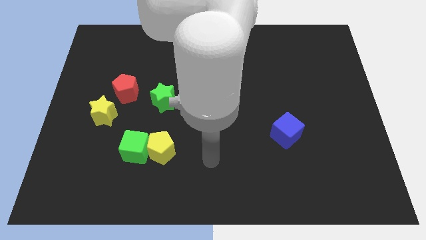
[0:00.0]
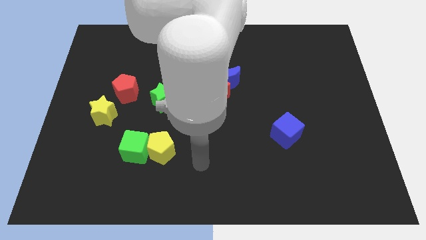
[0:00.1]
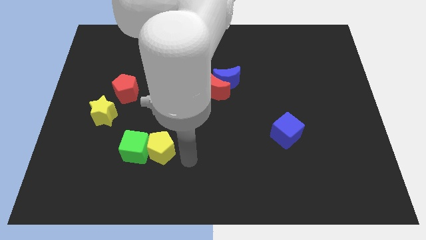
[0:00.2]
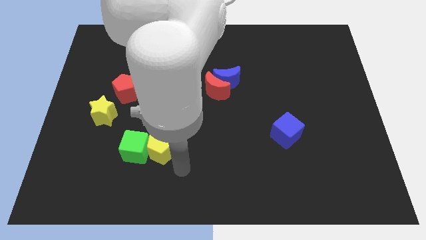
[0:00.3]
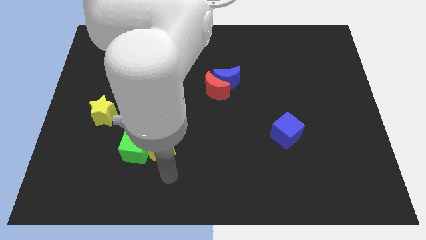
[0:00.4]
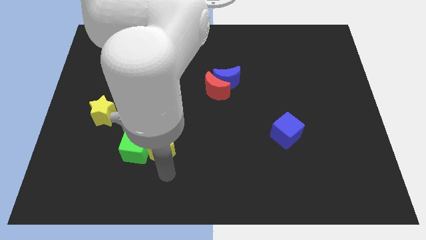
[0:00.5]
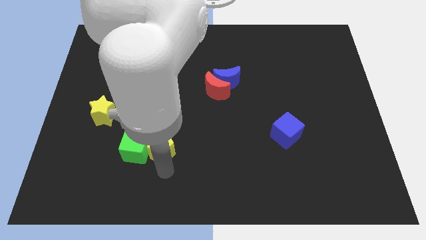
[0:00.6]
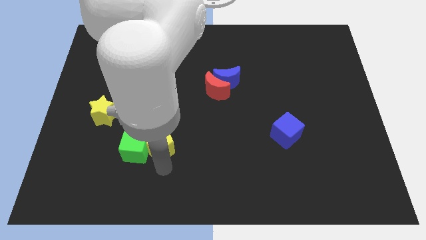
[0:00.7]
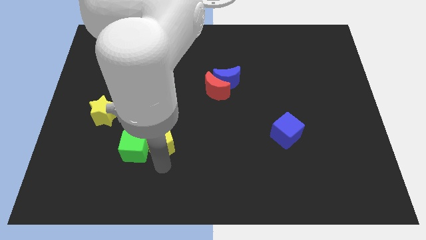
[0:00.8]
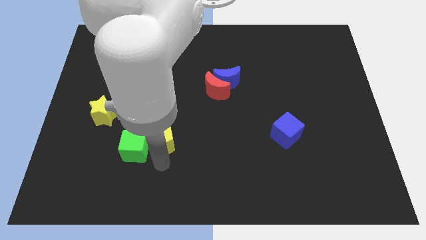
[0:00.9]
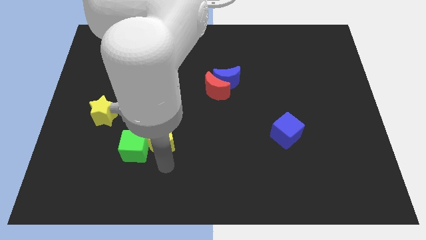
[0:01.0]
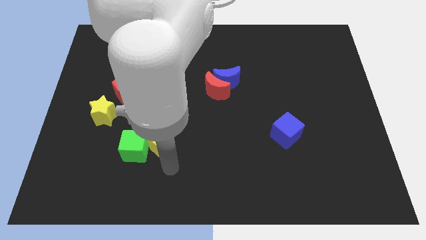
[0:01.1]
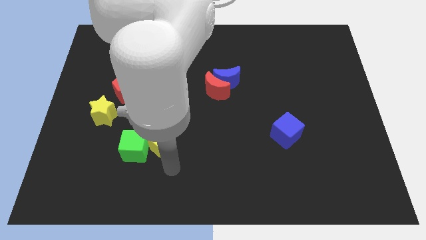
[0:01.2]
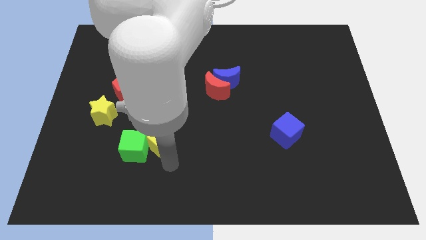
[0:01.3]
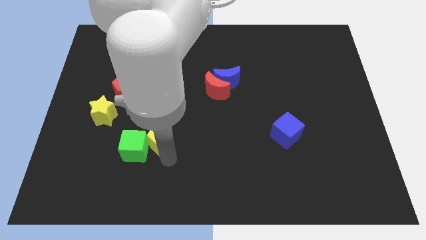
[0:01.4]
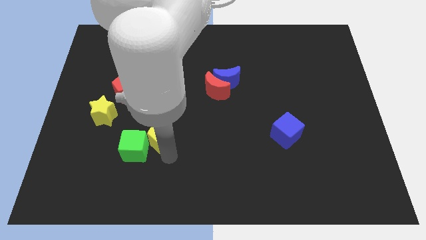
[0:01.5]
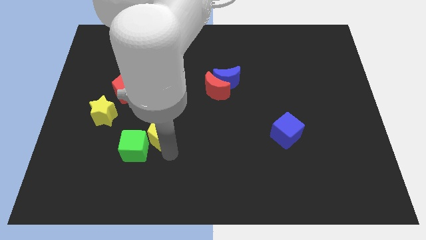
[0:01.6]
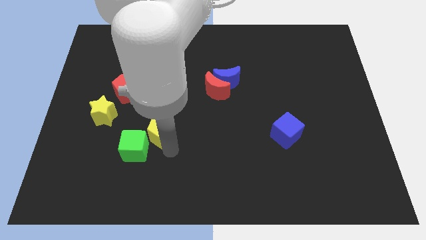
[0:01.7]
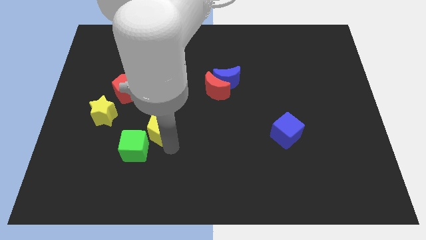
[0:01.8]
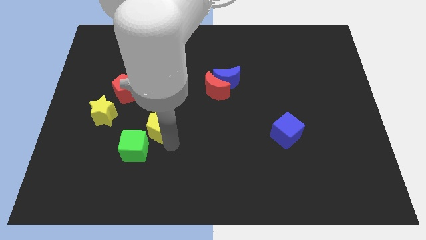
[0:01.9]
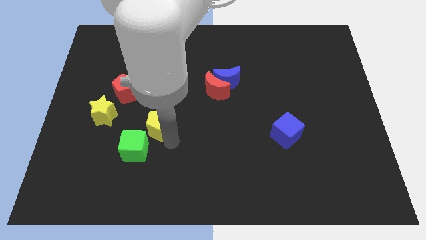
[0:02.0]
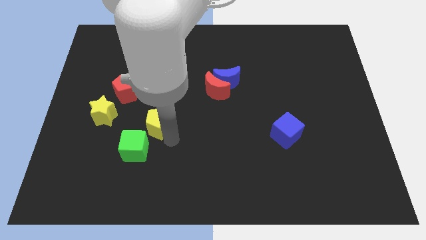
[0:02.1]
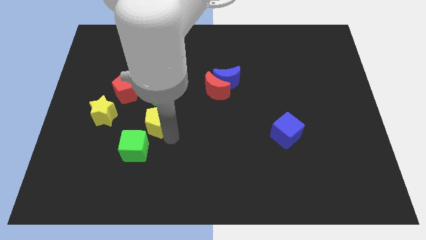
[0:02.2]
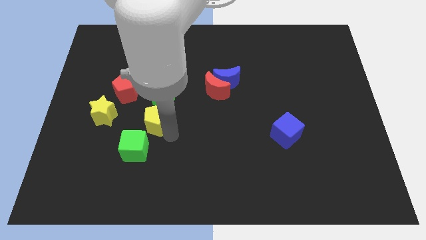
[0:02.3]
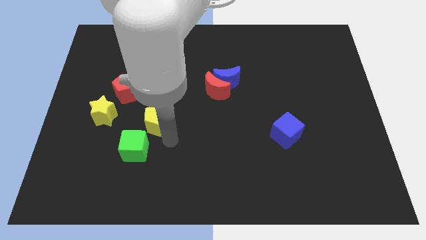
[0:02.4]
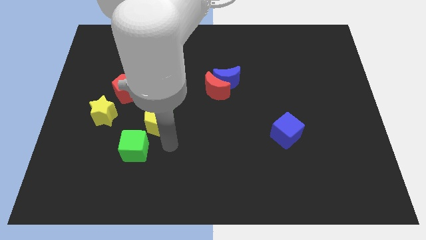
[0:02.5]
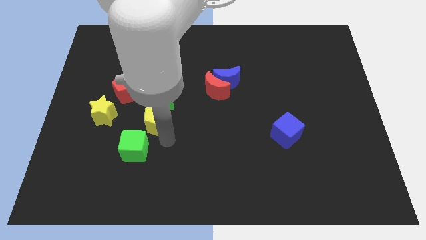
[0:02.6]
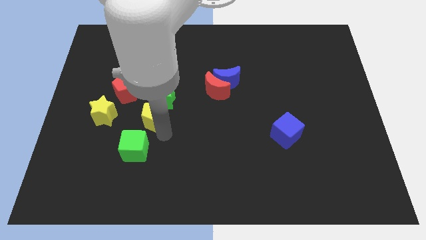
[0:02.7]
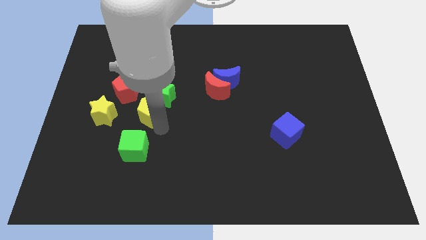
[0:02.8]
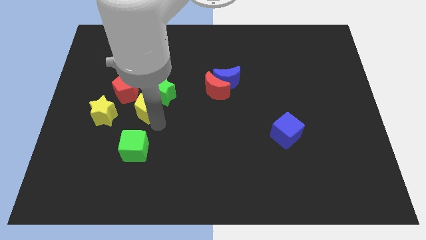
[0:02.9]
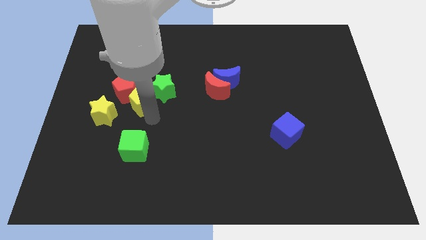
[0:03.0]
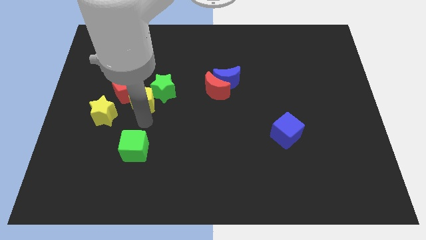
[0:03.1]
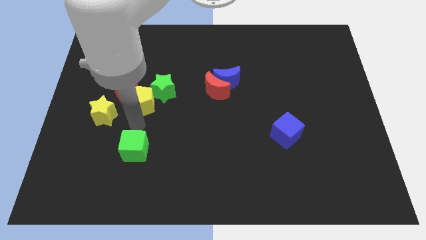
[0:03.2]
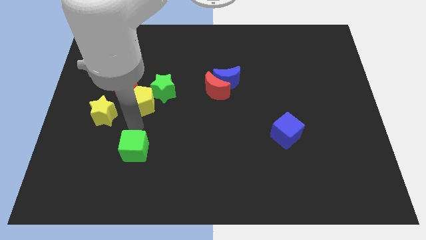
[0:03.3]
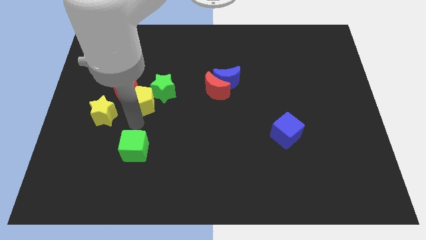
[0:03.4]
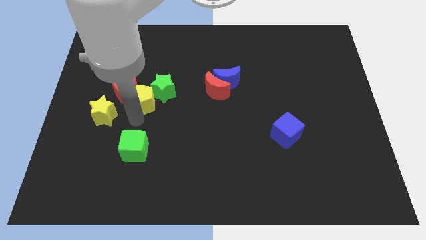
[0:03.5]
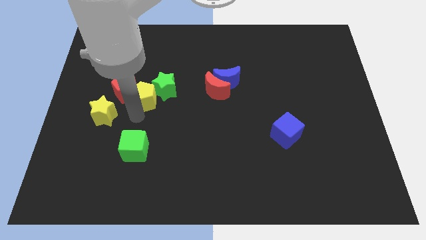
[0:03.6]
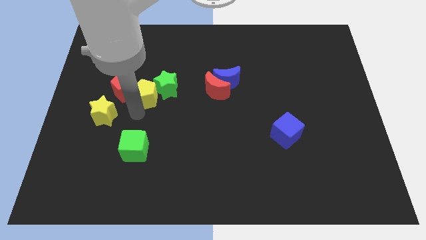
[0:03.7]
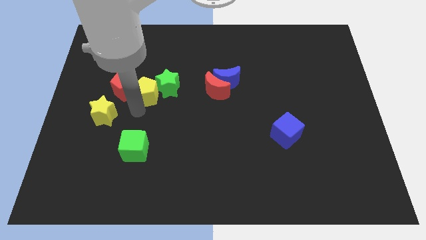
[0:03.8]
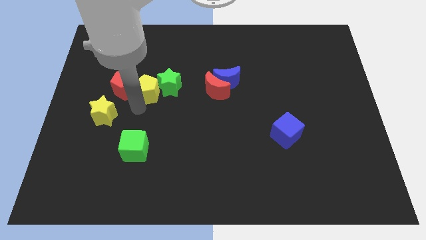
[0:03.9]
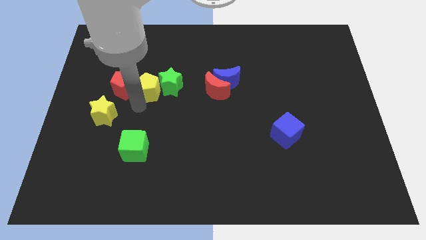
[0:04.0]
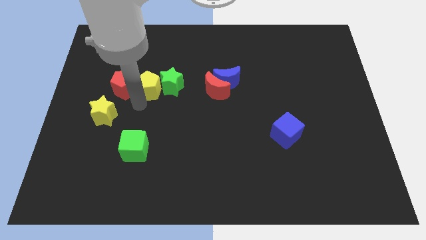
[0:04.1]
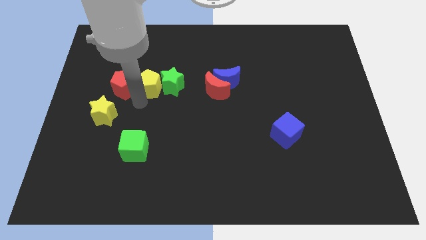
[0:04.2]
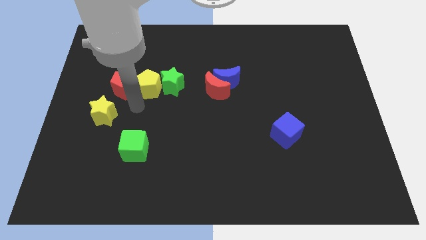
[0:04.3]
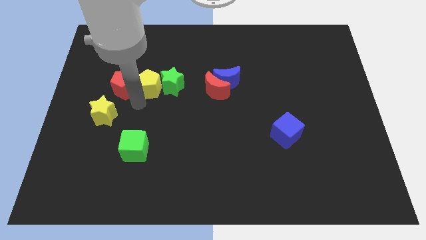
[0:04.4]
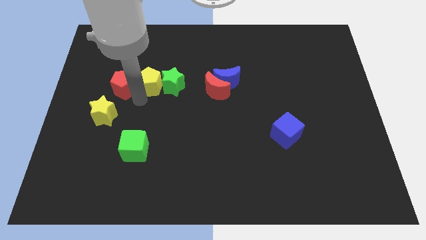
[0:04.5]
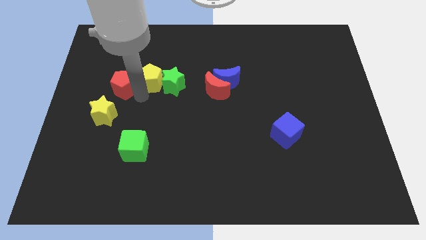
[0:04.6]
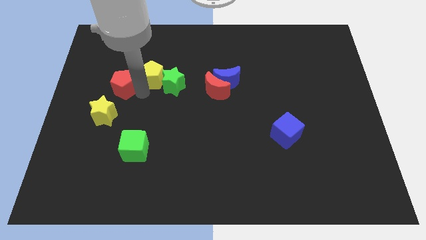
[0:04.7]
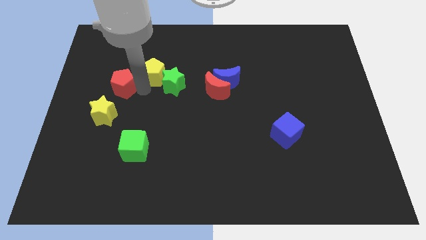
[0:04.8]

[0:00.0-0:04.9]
put the yellow pentagon to the top of the green star

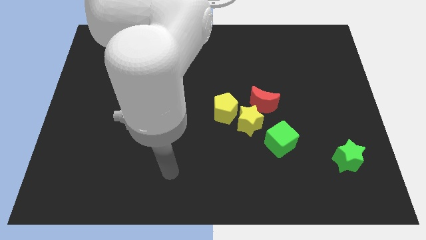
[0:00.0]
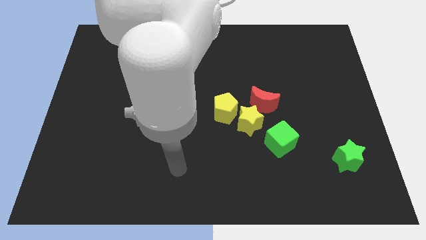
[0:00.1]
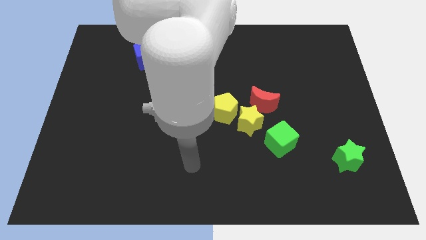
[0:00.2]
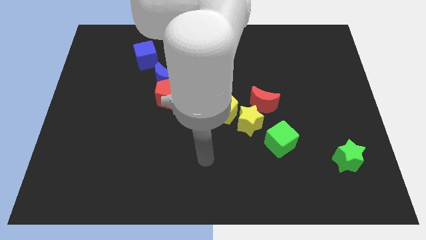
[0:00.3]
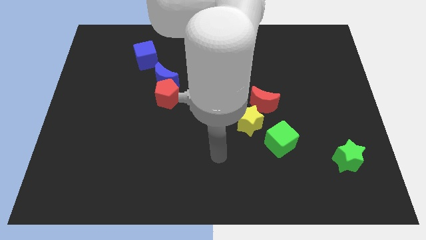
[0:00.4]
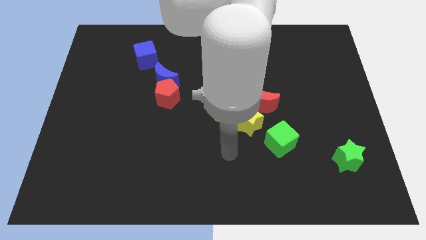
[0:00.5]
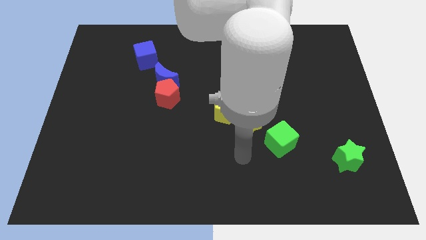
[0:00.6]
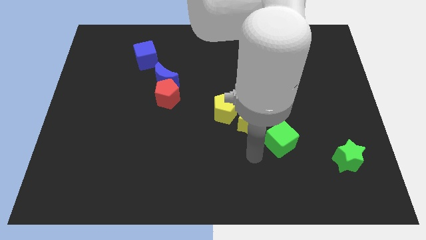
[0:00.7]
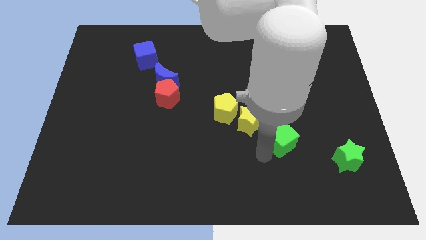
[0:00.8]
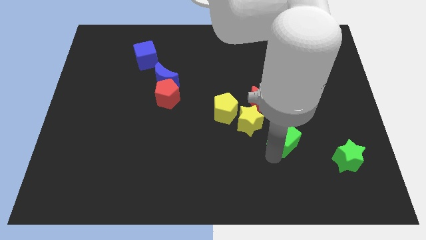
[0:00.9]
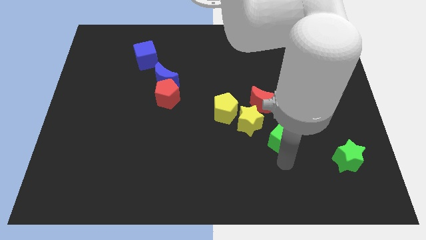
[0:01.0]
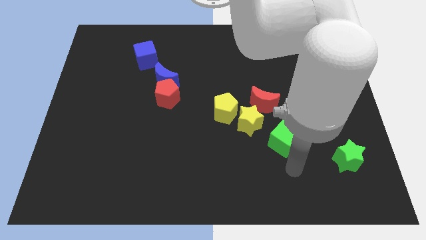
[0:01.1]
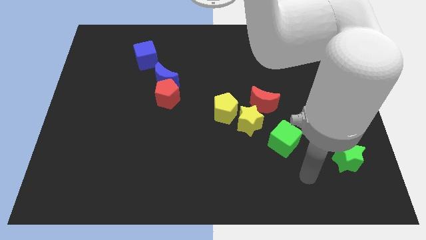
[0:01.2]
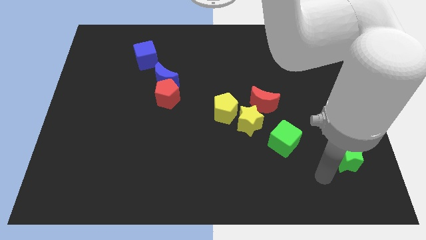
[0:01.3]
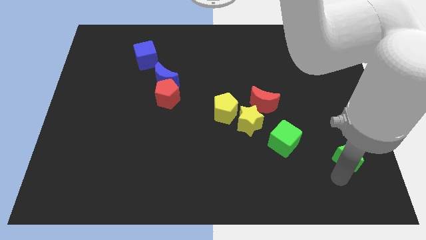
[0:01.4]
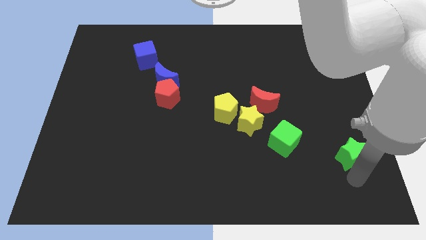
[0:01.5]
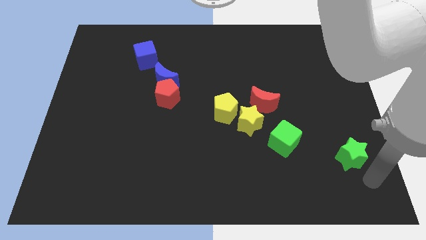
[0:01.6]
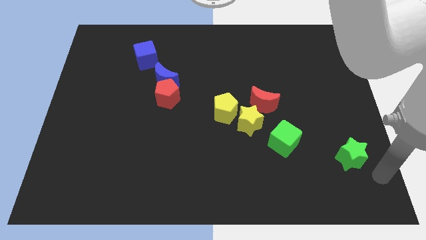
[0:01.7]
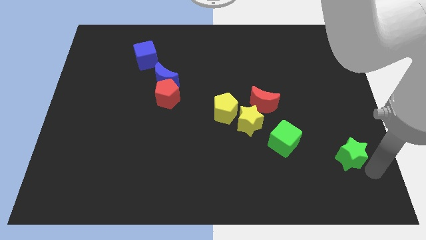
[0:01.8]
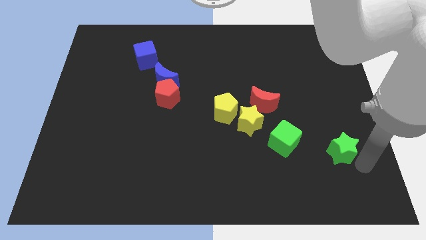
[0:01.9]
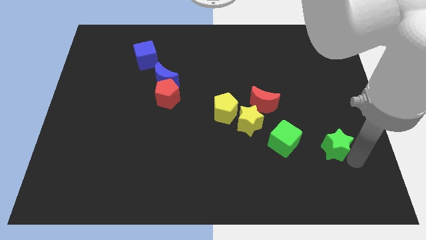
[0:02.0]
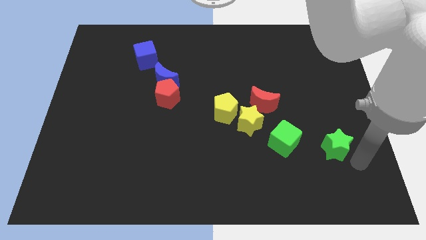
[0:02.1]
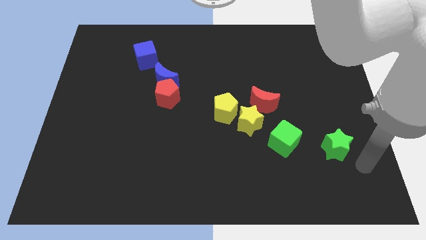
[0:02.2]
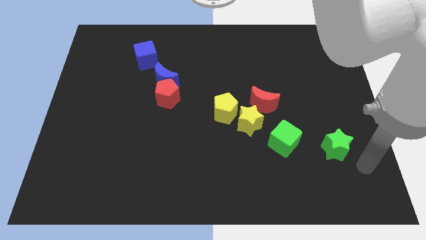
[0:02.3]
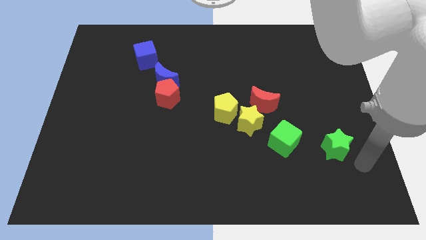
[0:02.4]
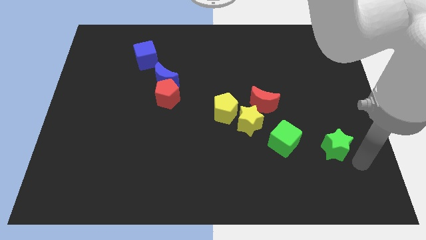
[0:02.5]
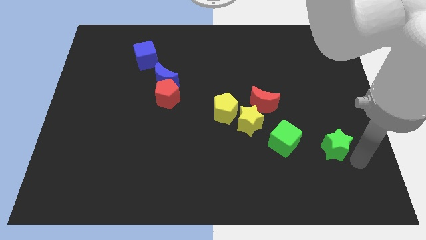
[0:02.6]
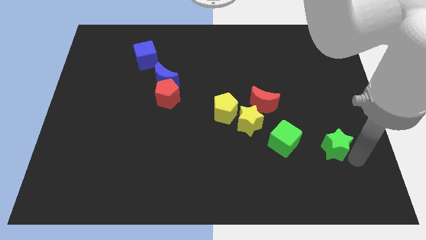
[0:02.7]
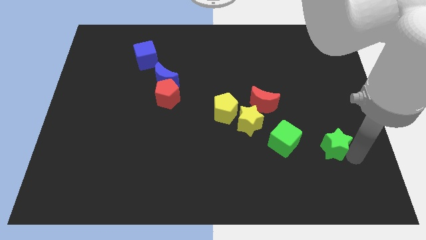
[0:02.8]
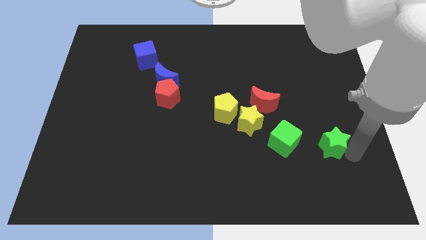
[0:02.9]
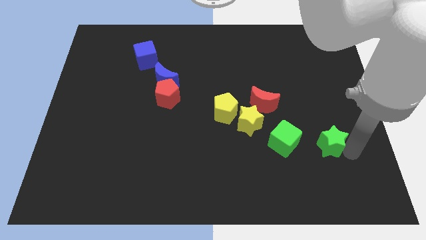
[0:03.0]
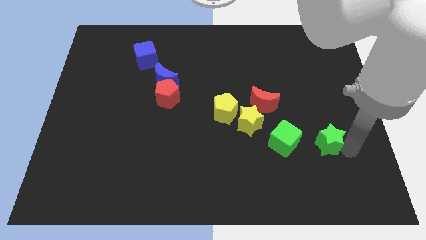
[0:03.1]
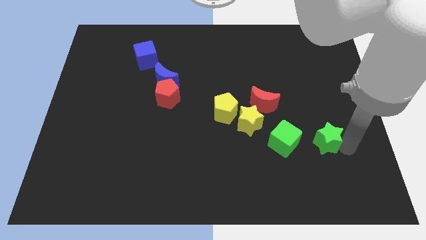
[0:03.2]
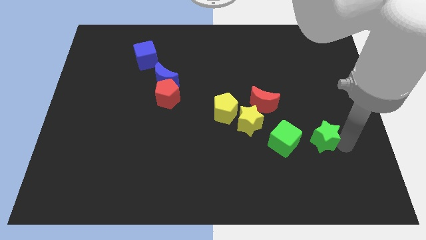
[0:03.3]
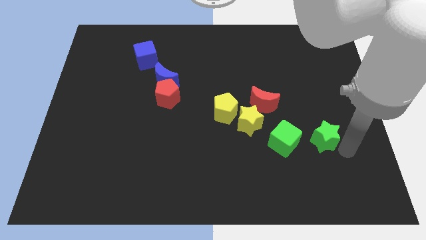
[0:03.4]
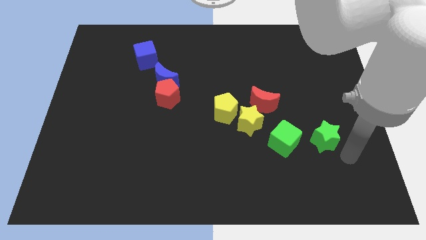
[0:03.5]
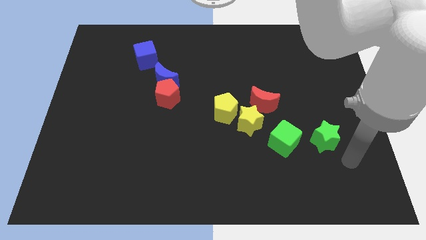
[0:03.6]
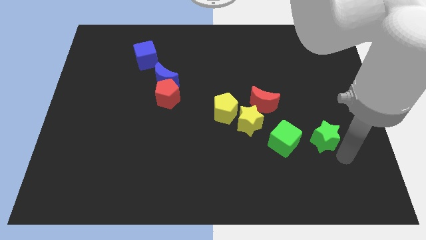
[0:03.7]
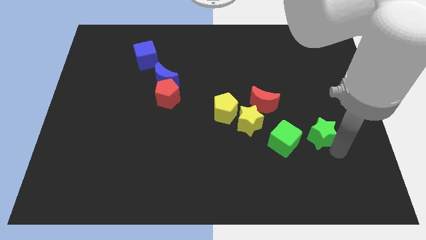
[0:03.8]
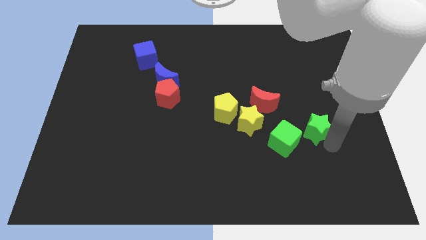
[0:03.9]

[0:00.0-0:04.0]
put the green star to the top right side of the green cube
